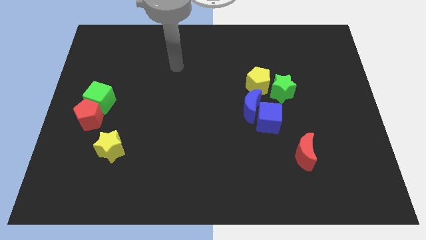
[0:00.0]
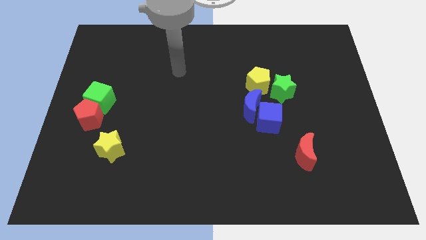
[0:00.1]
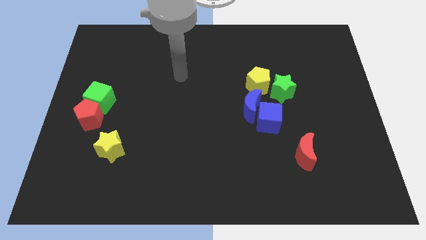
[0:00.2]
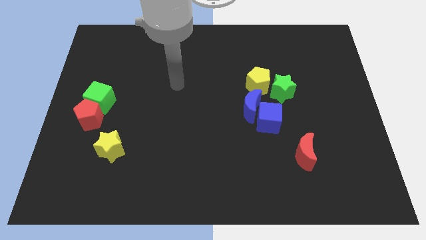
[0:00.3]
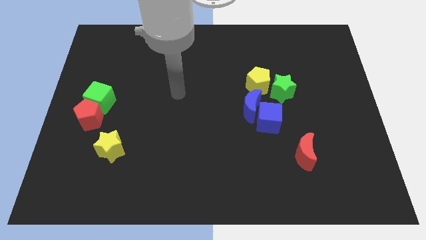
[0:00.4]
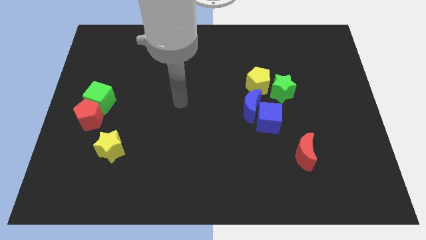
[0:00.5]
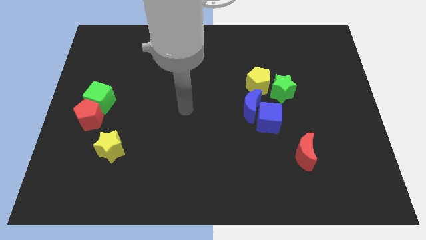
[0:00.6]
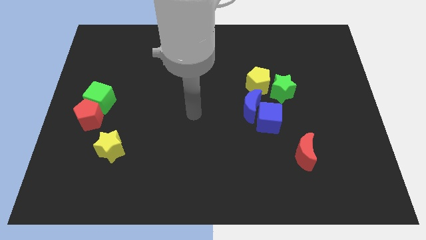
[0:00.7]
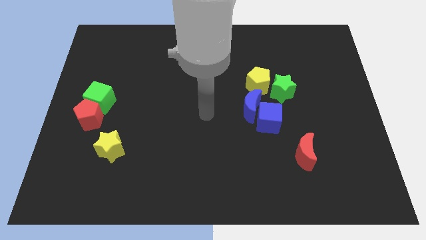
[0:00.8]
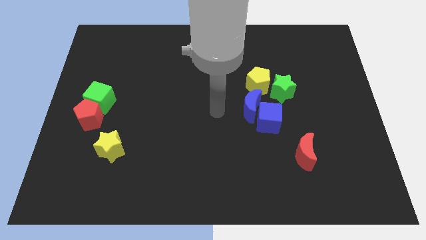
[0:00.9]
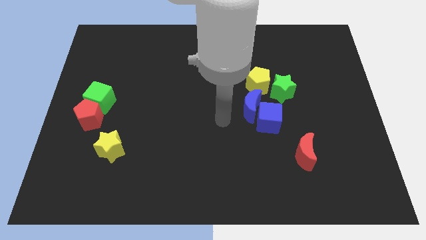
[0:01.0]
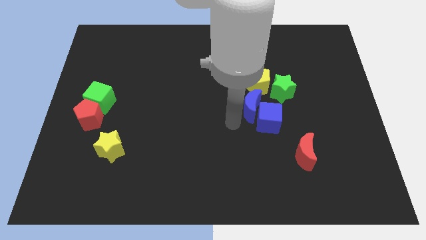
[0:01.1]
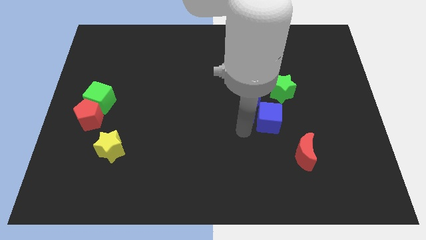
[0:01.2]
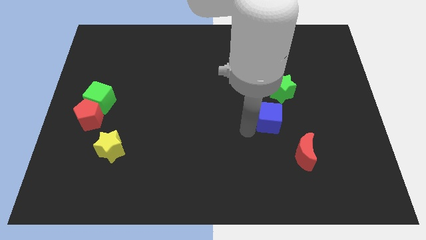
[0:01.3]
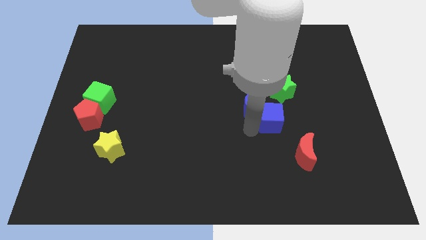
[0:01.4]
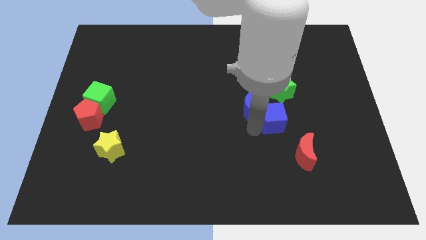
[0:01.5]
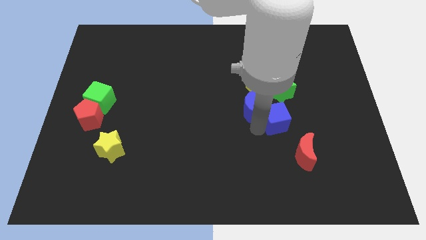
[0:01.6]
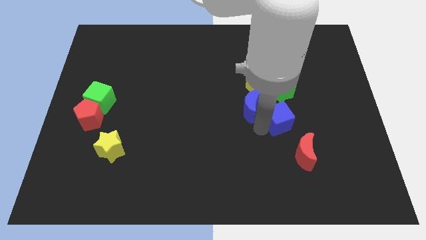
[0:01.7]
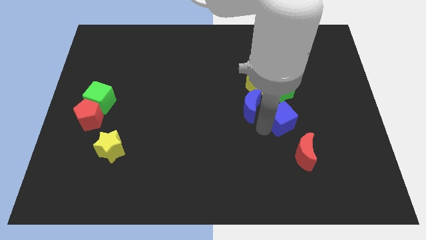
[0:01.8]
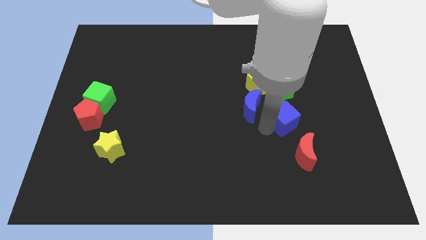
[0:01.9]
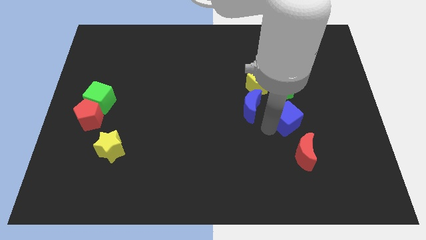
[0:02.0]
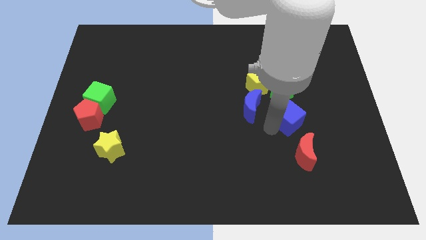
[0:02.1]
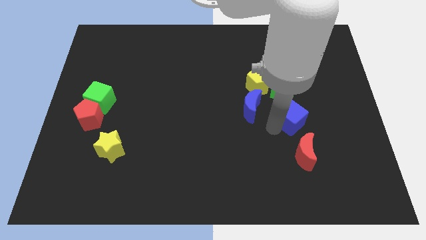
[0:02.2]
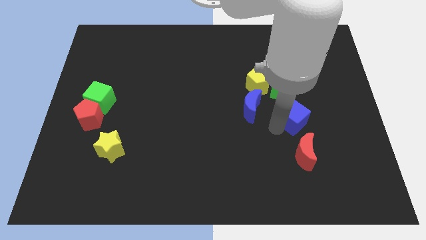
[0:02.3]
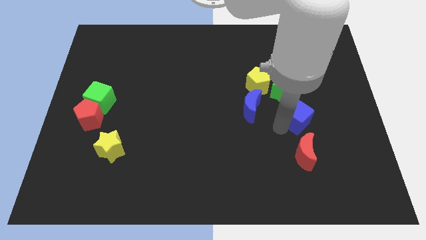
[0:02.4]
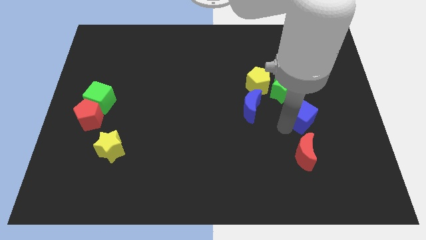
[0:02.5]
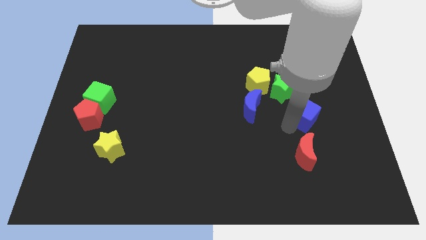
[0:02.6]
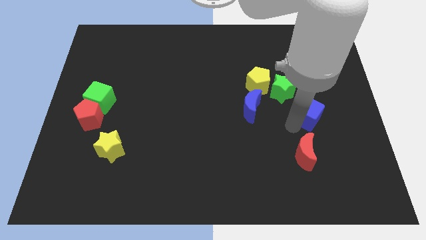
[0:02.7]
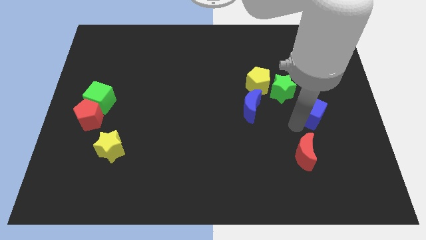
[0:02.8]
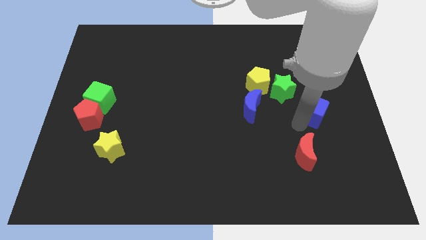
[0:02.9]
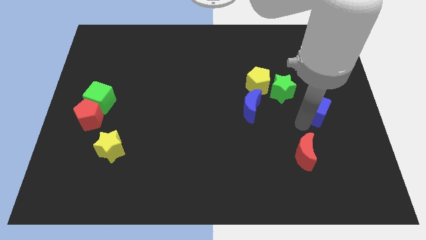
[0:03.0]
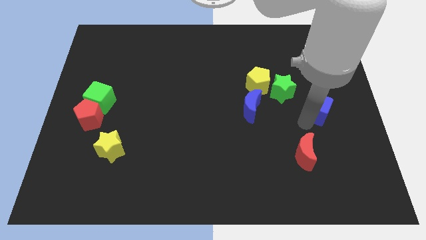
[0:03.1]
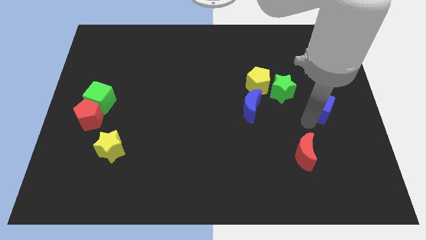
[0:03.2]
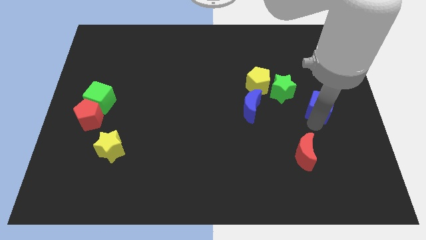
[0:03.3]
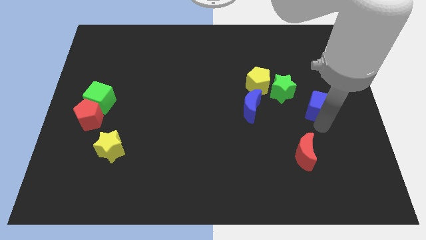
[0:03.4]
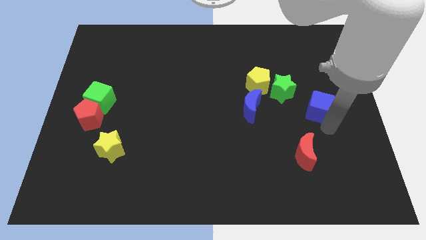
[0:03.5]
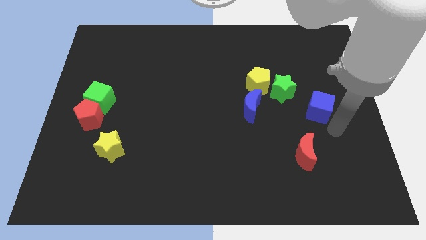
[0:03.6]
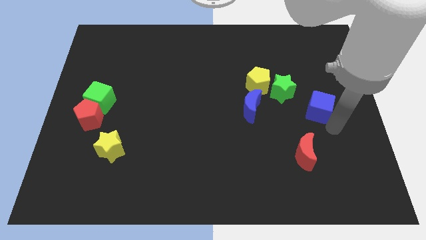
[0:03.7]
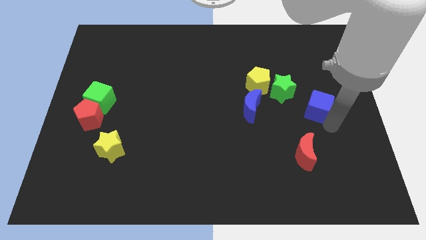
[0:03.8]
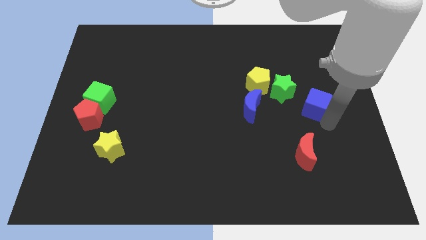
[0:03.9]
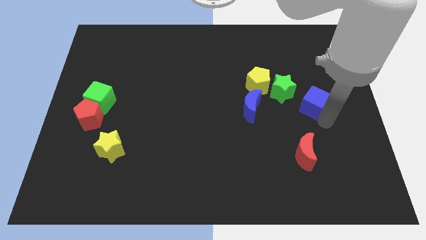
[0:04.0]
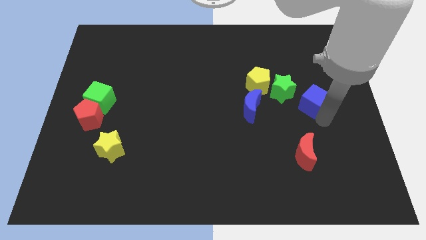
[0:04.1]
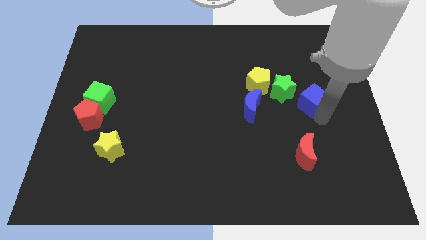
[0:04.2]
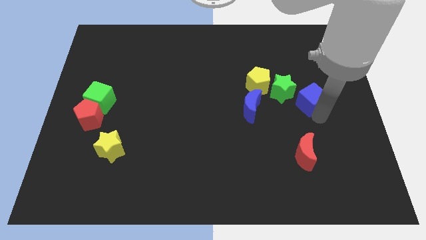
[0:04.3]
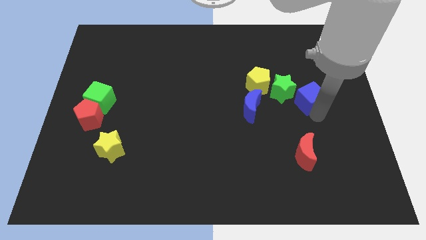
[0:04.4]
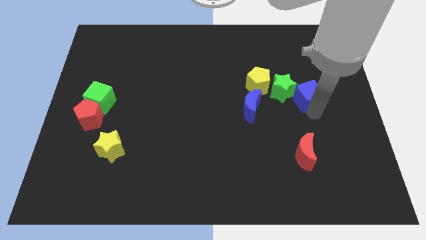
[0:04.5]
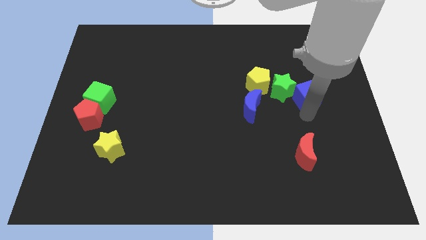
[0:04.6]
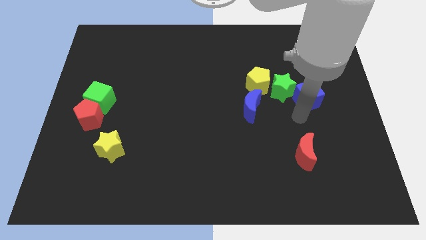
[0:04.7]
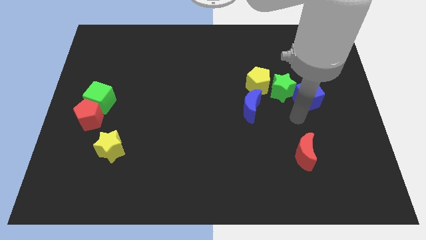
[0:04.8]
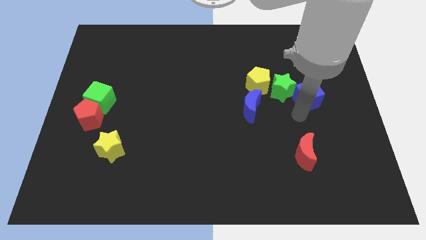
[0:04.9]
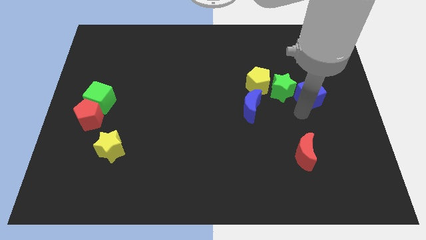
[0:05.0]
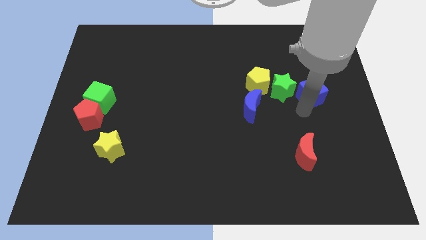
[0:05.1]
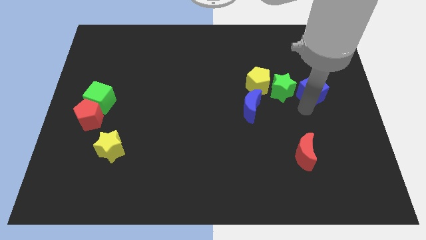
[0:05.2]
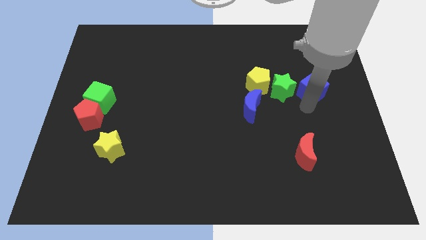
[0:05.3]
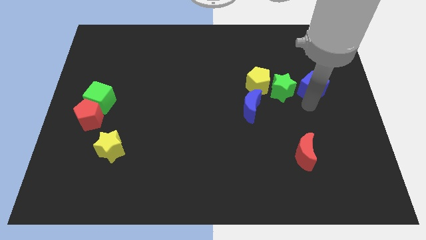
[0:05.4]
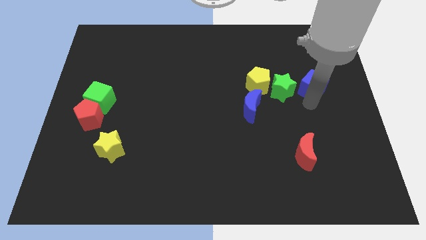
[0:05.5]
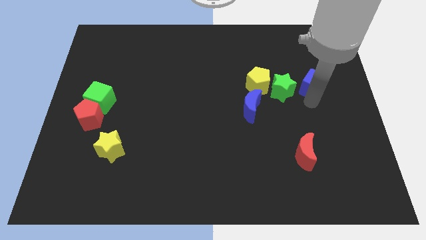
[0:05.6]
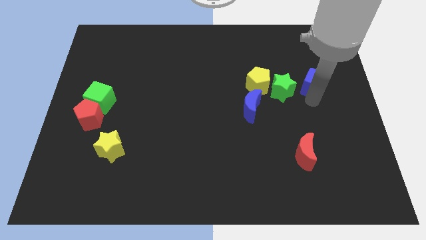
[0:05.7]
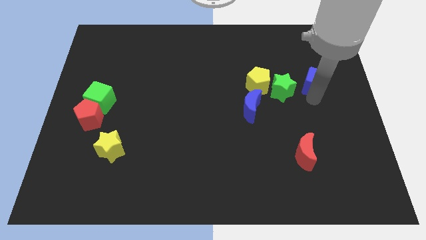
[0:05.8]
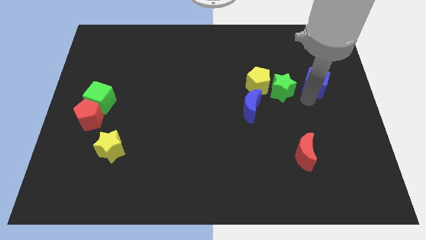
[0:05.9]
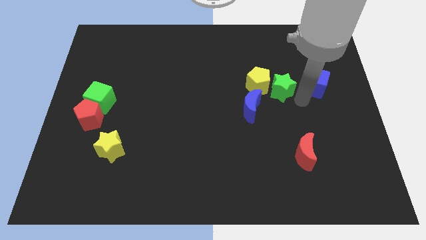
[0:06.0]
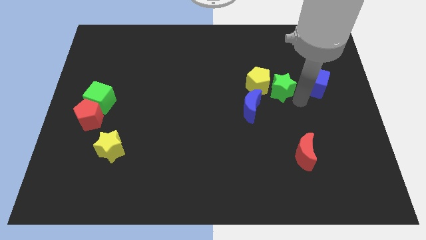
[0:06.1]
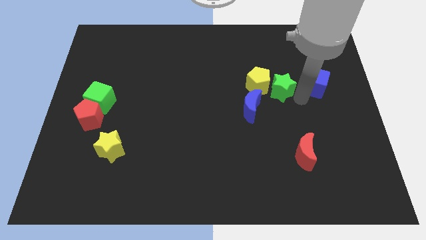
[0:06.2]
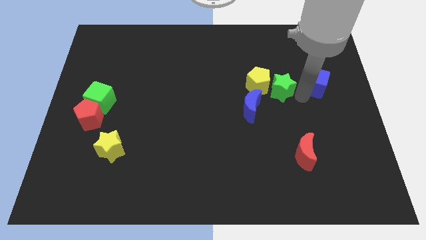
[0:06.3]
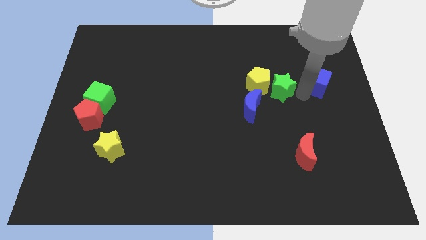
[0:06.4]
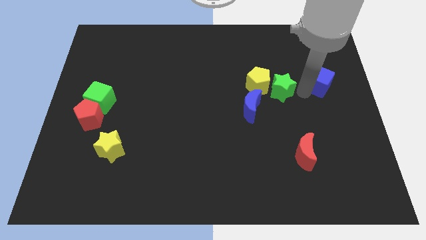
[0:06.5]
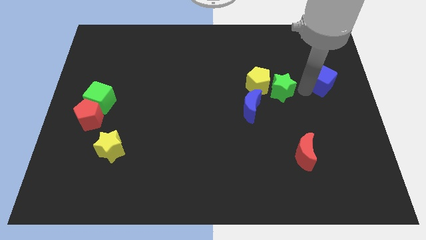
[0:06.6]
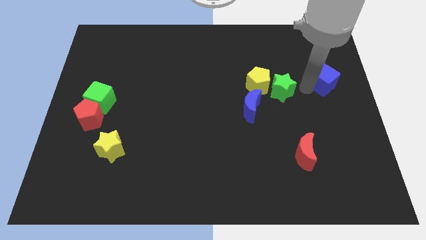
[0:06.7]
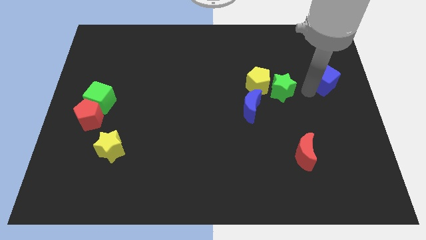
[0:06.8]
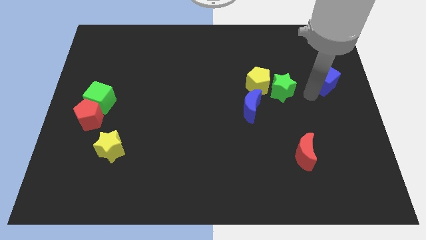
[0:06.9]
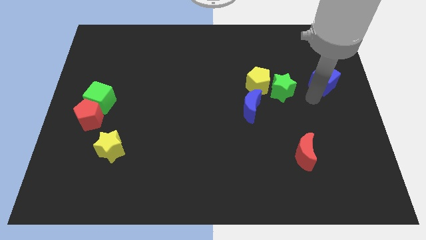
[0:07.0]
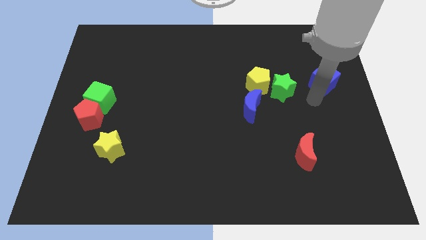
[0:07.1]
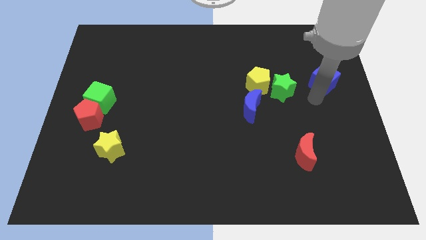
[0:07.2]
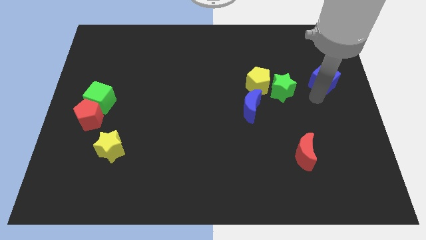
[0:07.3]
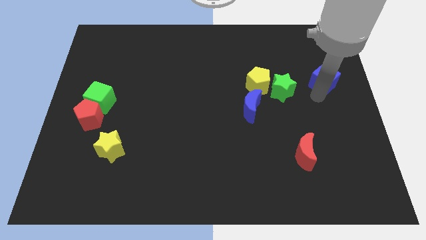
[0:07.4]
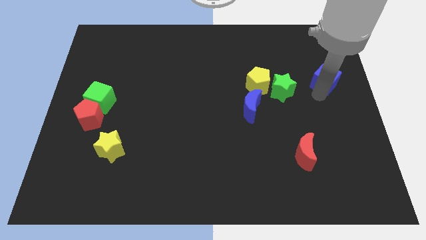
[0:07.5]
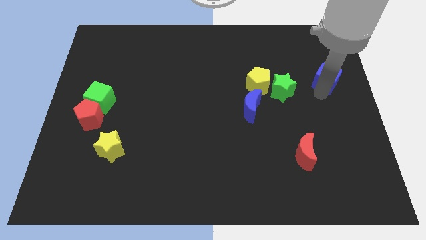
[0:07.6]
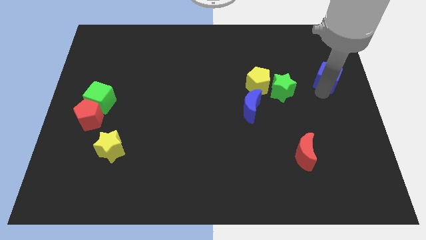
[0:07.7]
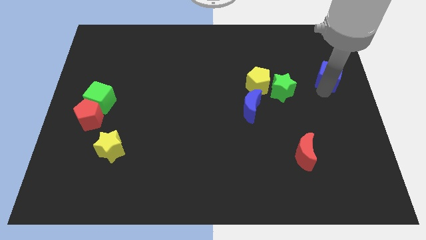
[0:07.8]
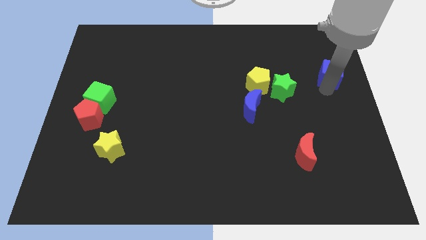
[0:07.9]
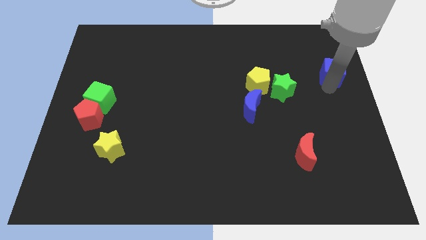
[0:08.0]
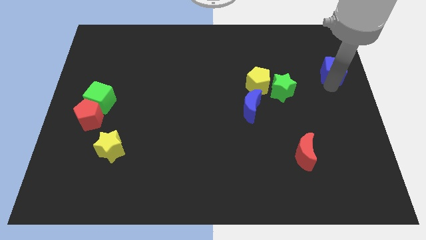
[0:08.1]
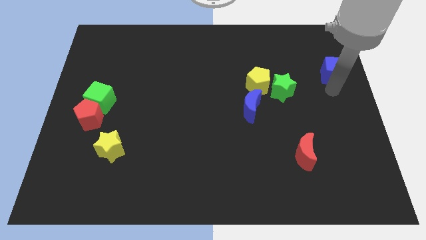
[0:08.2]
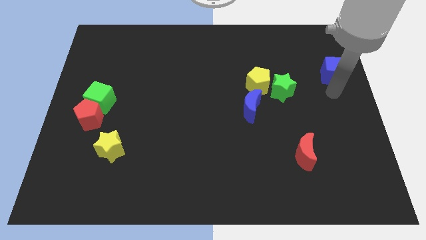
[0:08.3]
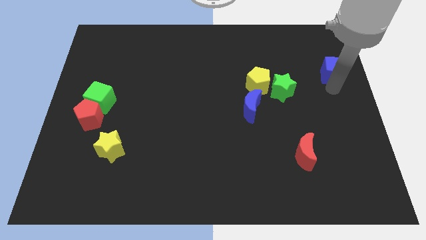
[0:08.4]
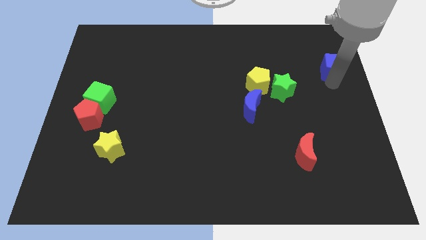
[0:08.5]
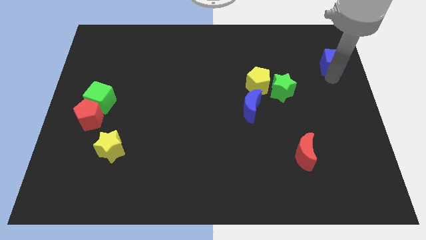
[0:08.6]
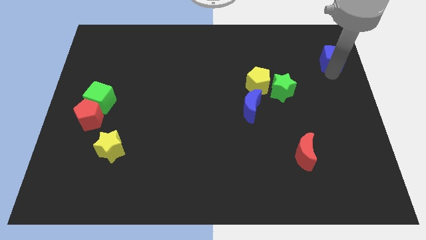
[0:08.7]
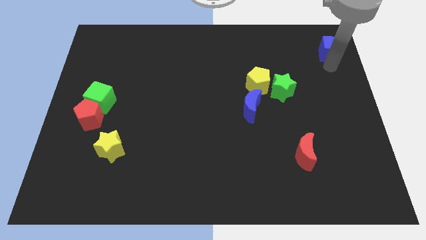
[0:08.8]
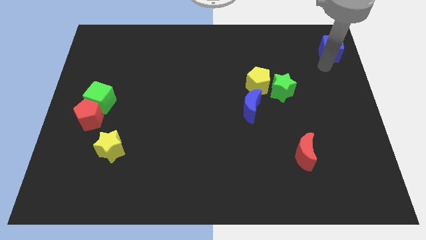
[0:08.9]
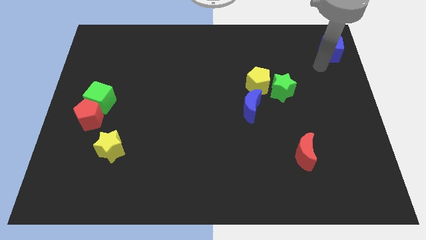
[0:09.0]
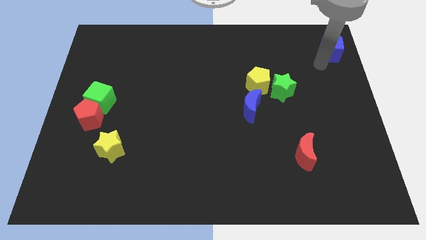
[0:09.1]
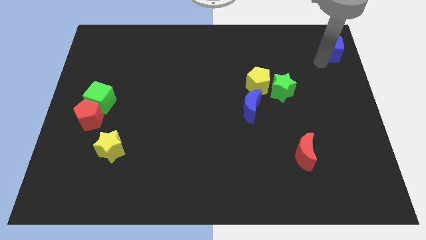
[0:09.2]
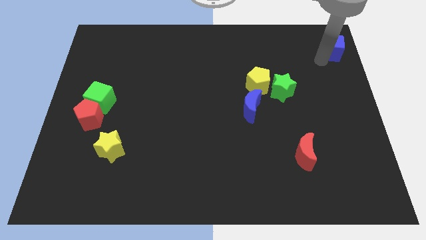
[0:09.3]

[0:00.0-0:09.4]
push the blue cube to the top right
